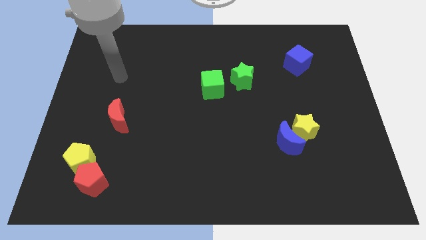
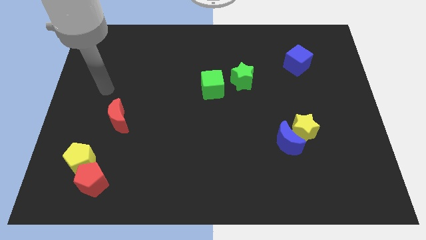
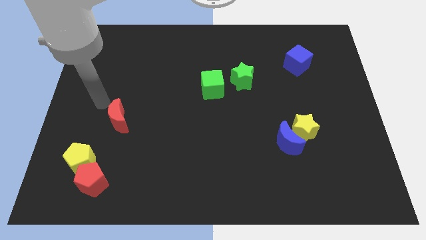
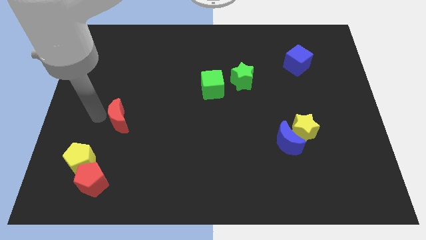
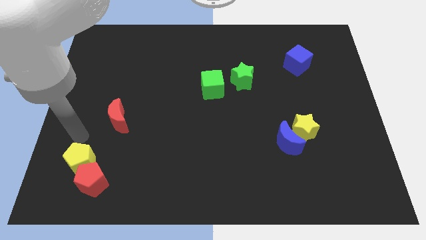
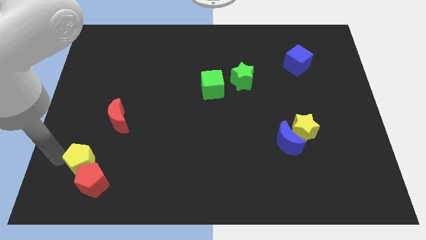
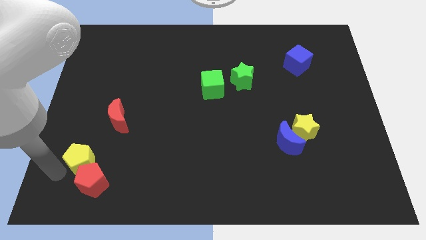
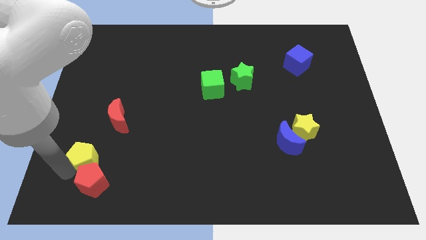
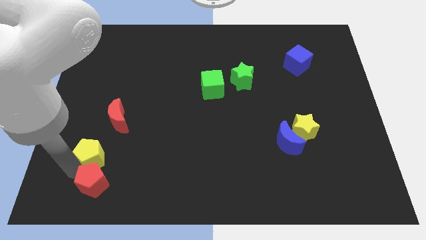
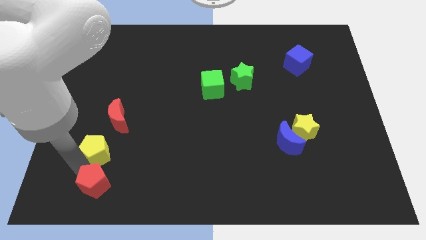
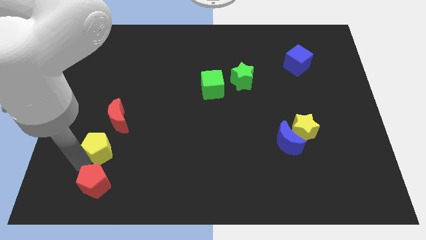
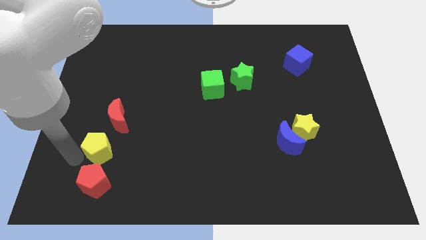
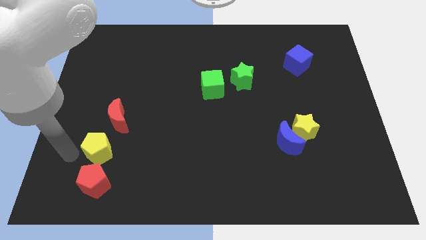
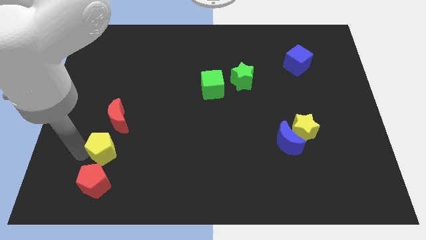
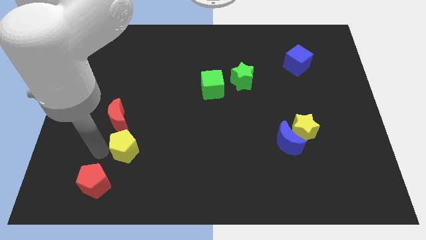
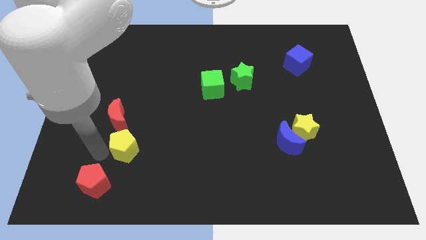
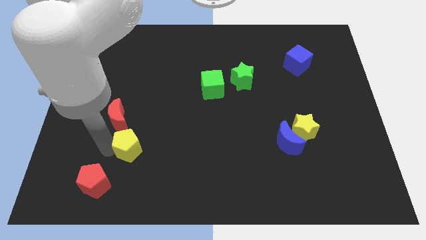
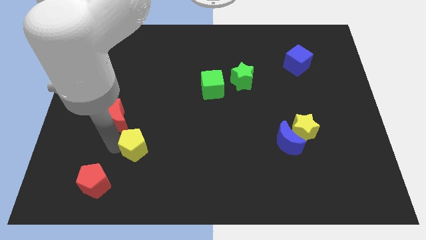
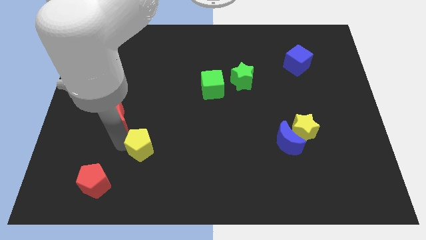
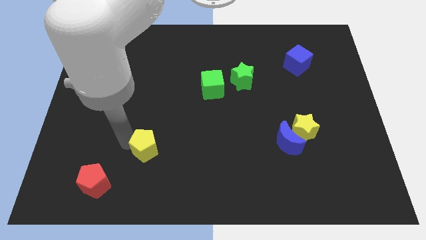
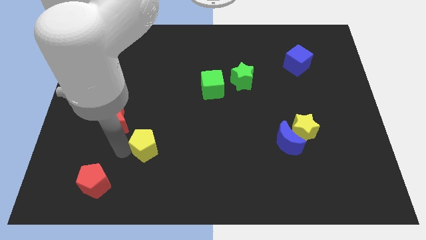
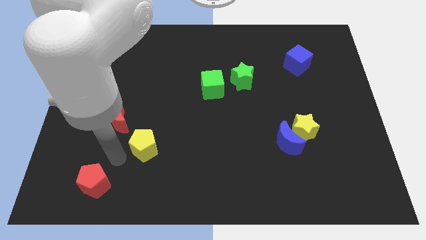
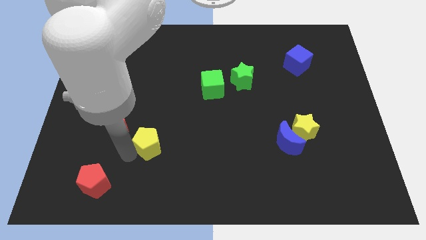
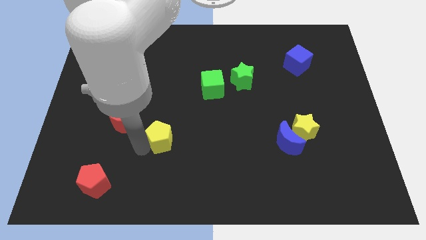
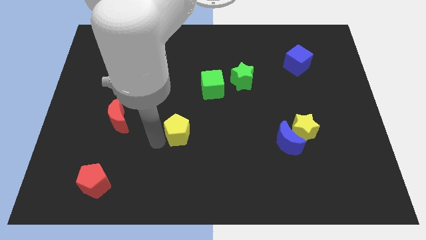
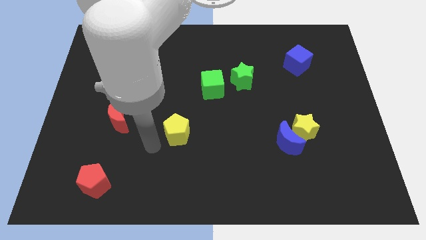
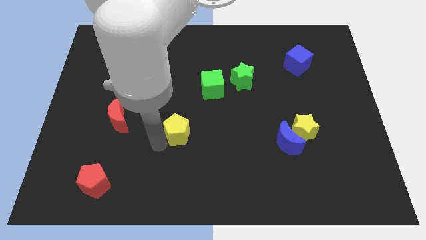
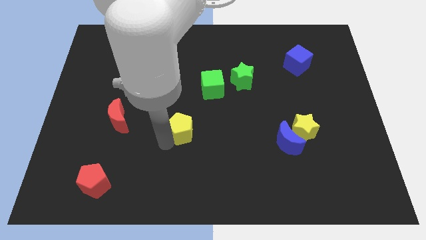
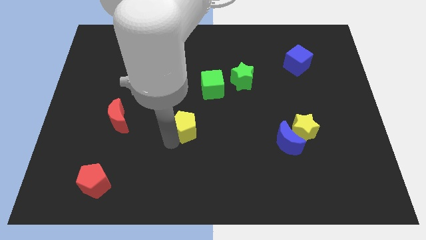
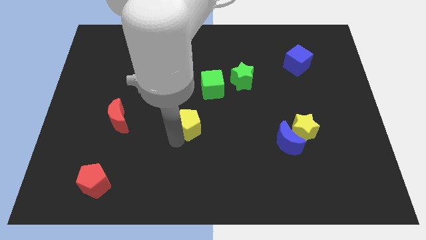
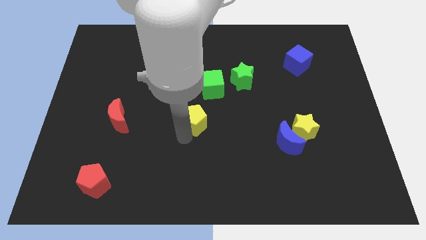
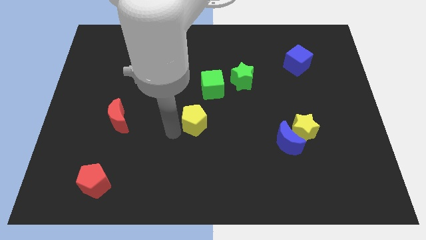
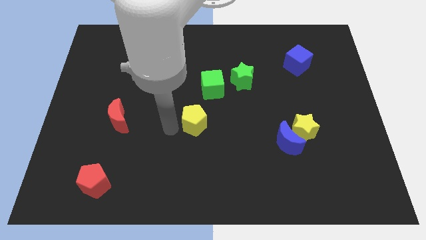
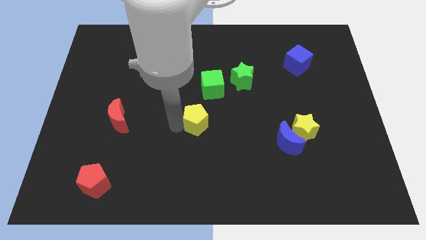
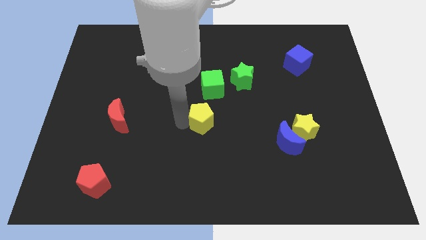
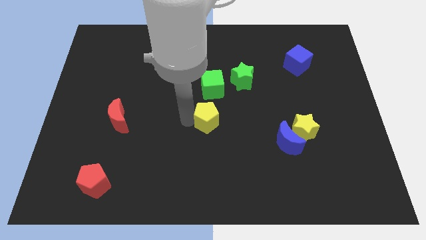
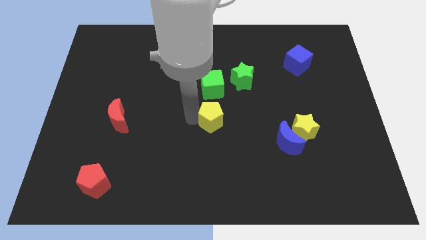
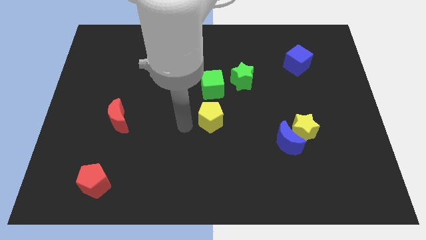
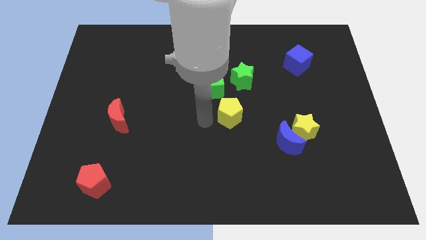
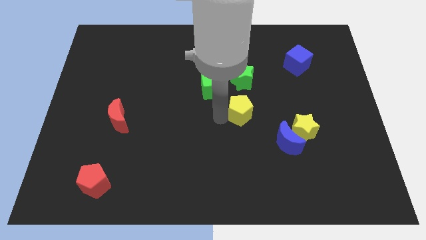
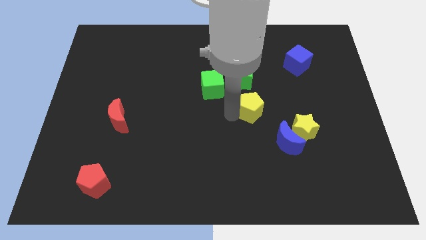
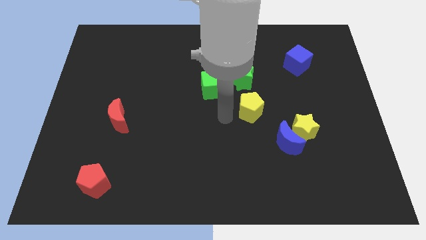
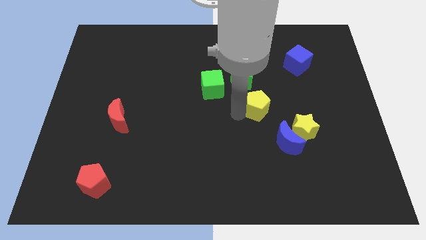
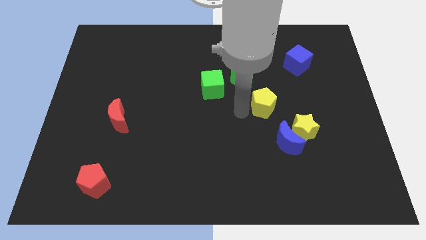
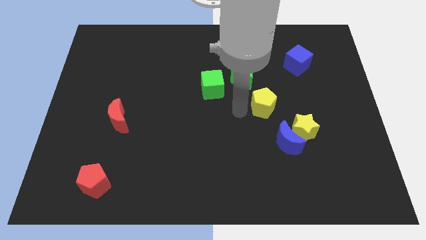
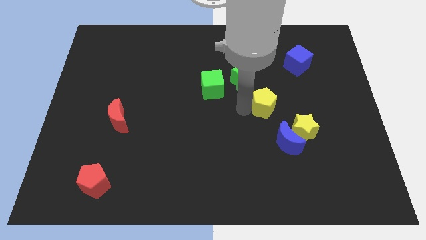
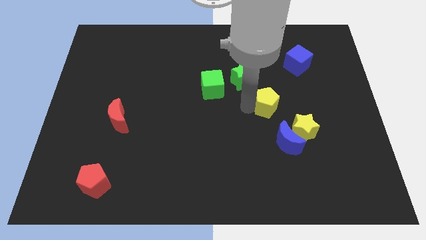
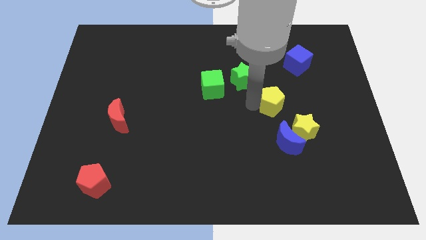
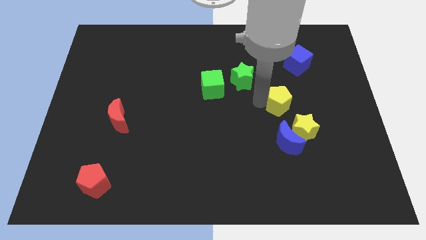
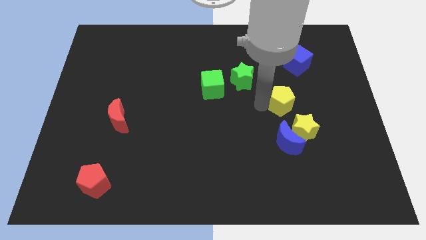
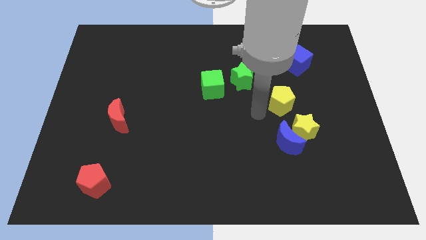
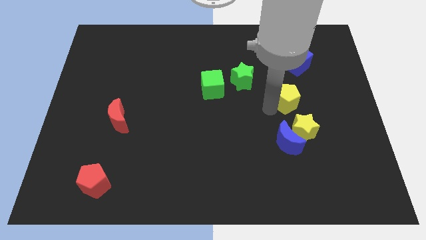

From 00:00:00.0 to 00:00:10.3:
push the yellow pentagon to the bottom side of the blue cube

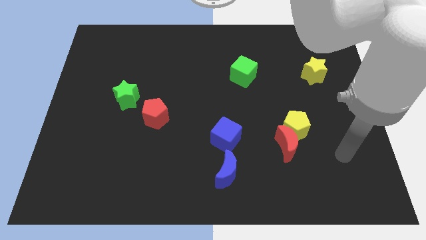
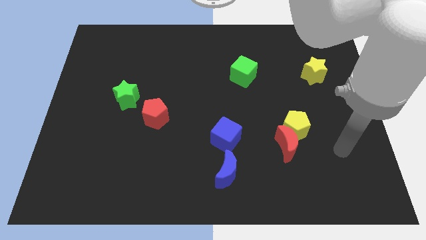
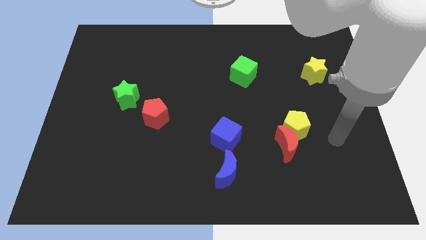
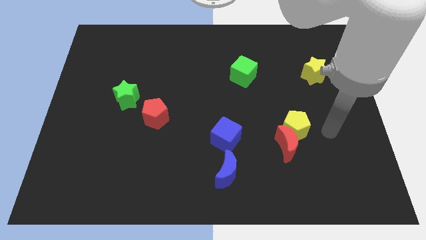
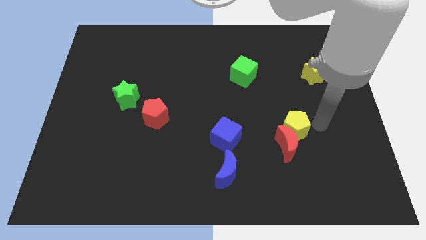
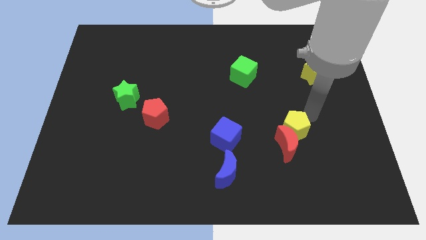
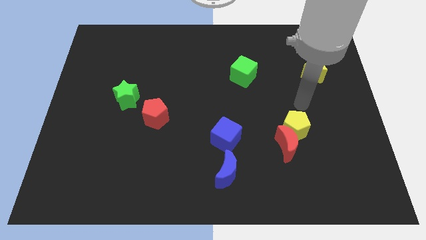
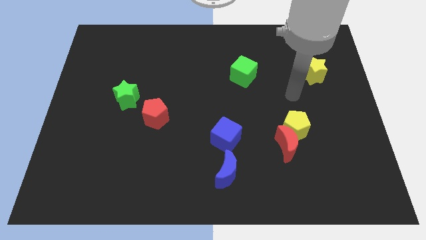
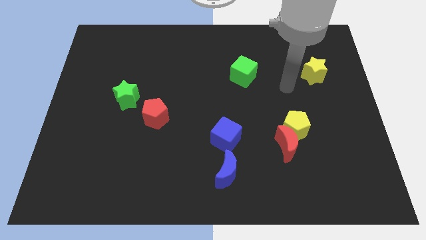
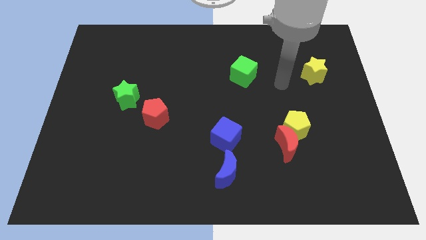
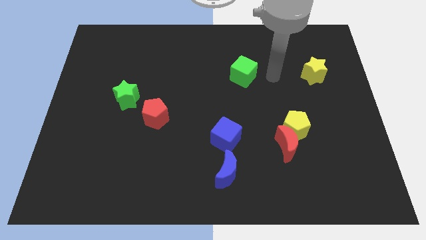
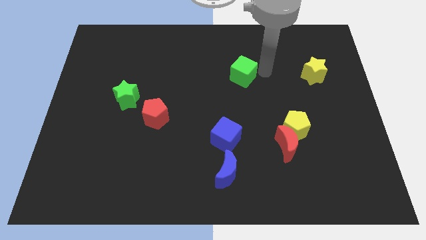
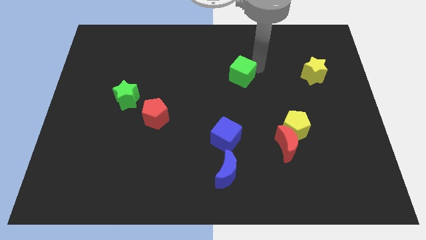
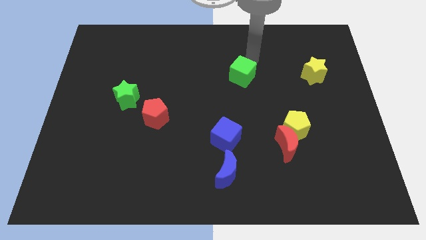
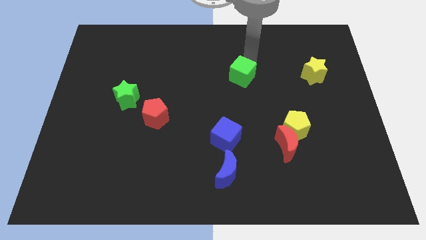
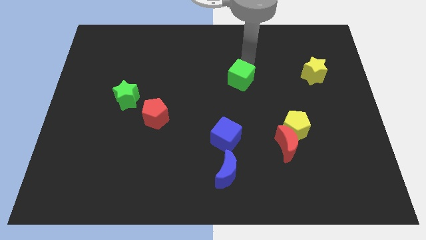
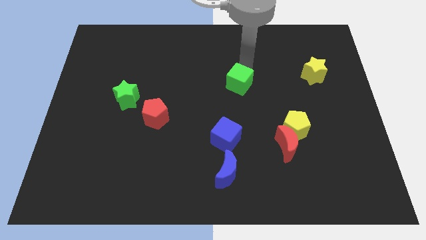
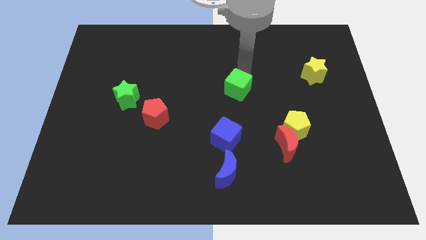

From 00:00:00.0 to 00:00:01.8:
slide the green cube above the blue cube

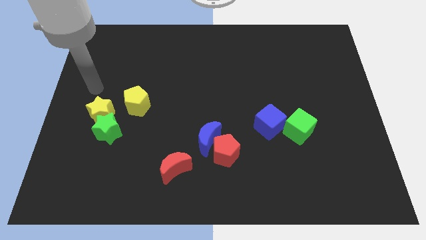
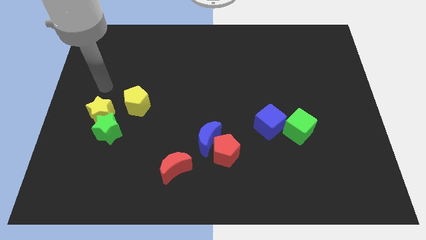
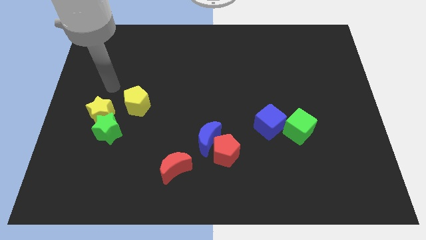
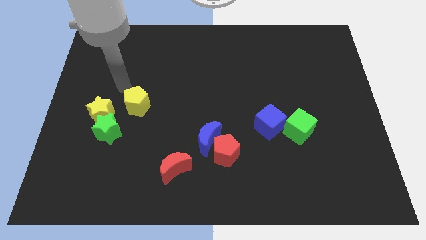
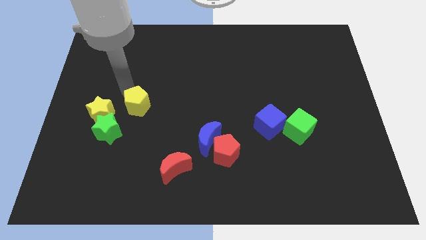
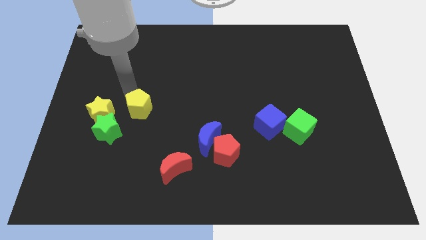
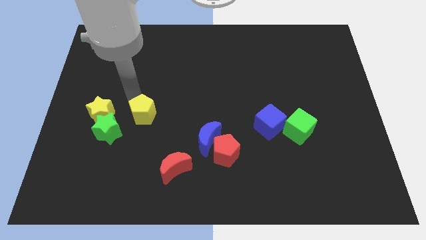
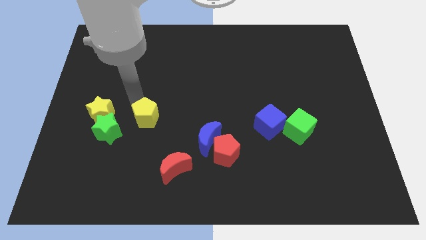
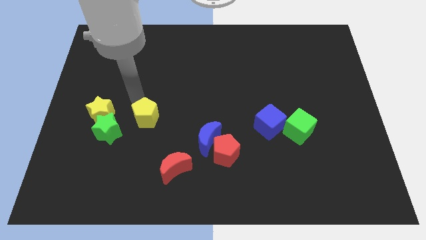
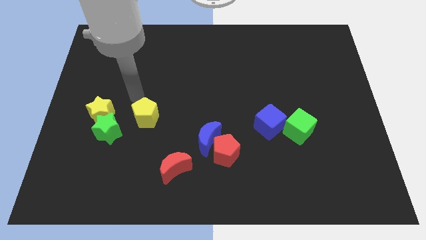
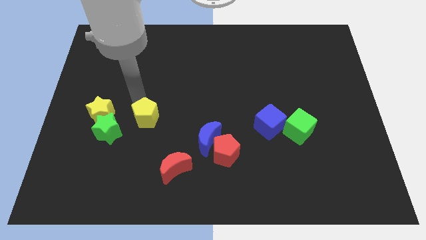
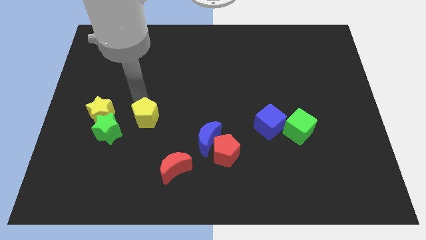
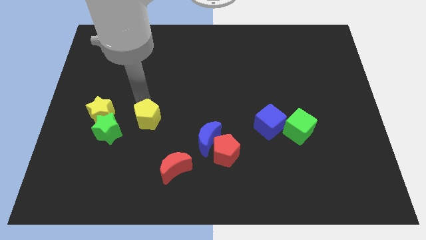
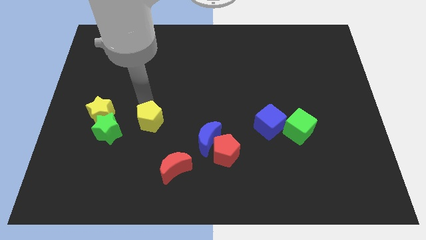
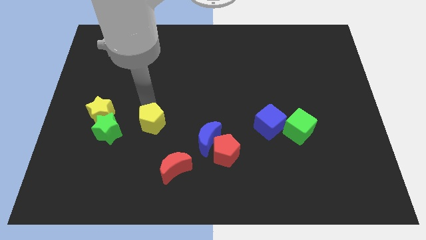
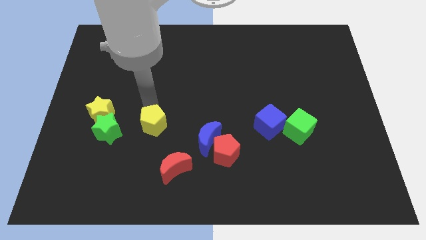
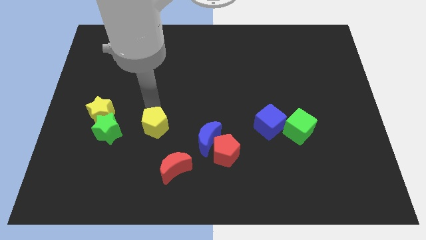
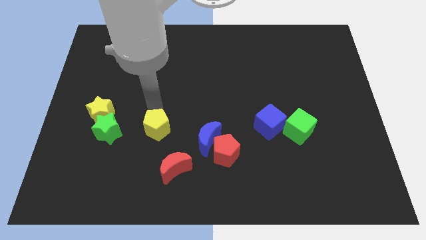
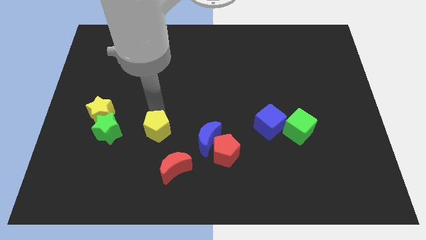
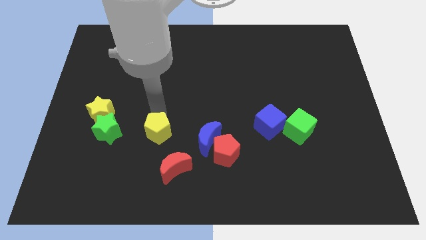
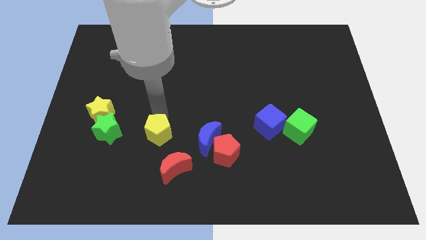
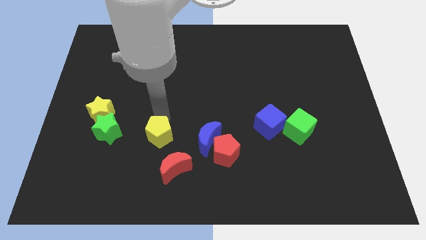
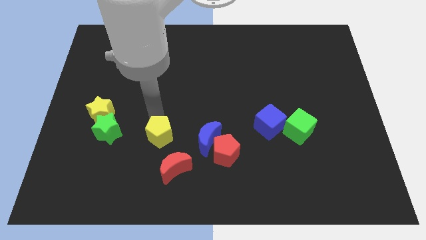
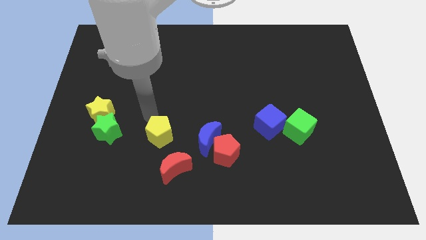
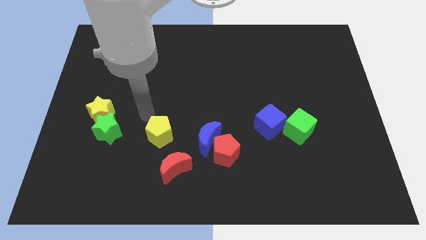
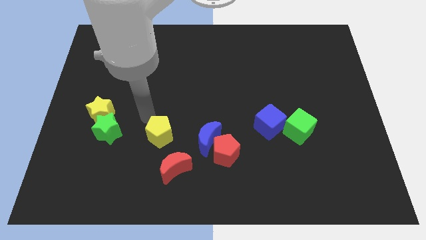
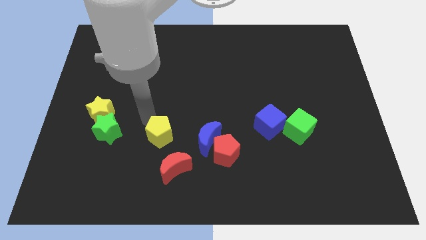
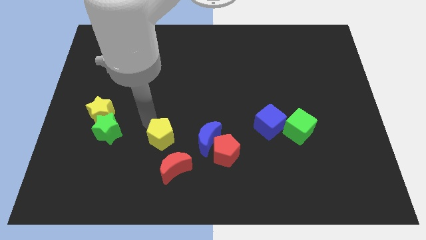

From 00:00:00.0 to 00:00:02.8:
slide the yellow pentagon to the left side of the red pentagon
